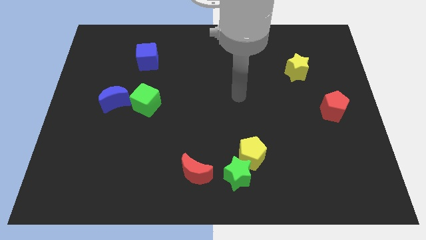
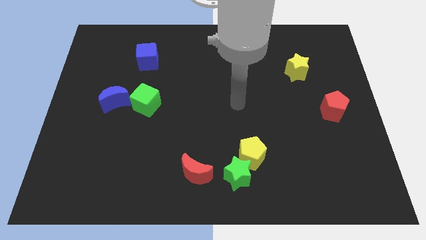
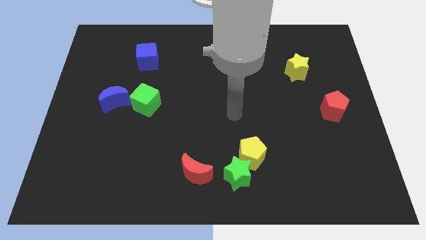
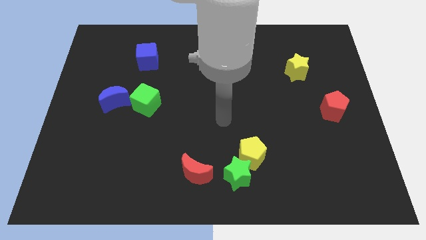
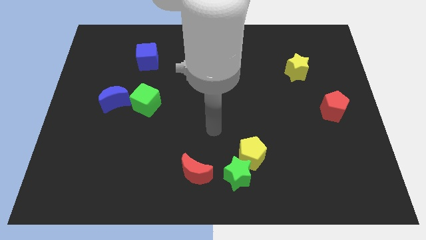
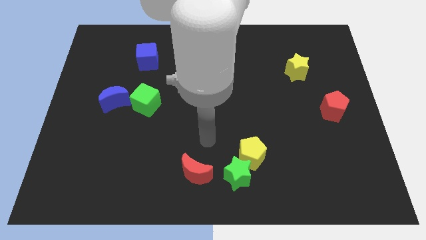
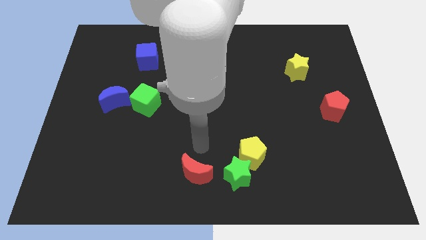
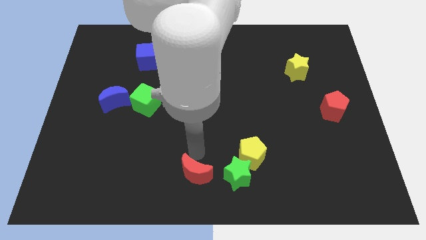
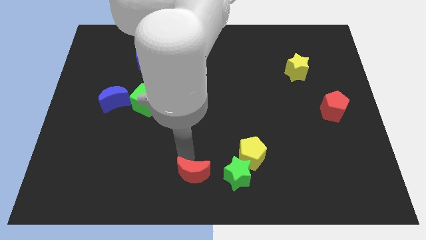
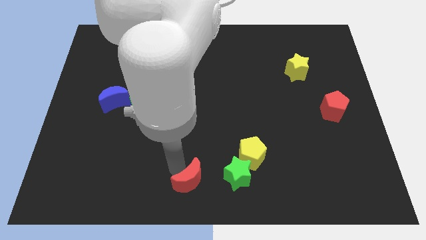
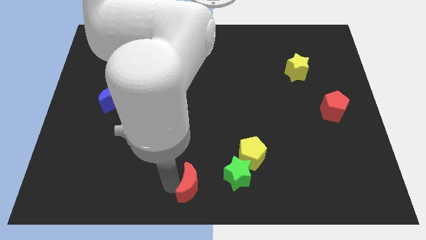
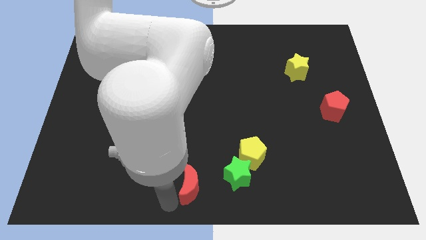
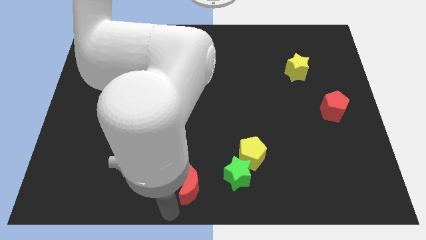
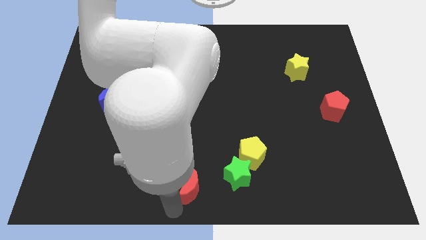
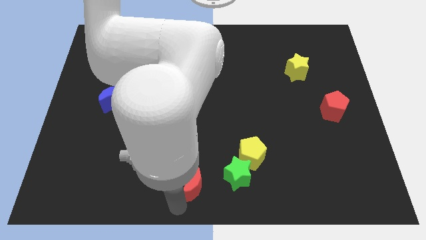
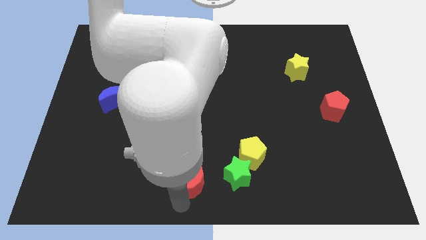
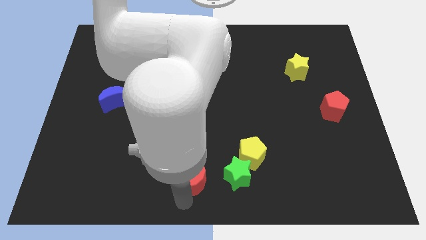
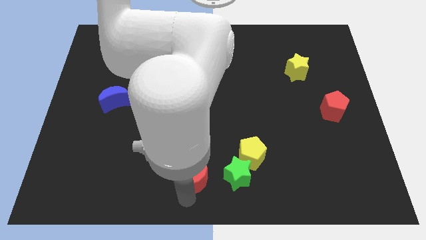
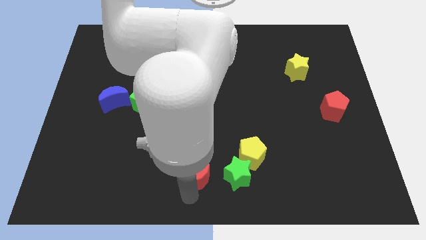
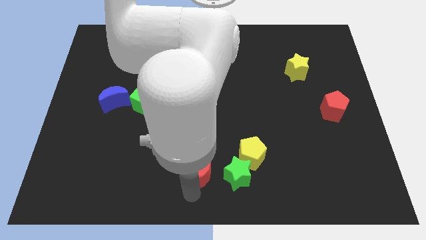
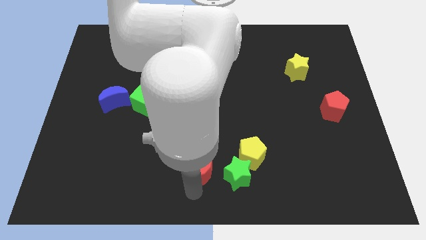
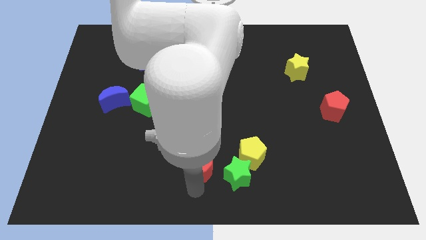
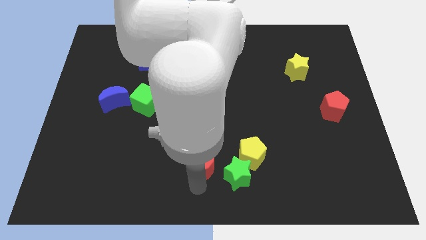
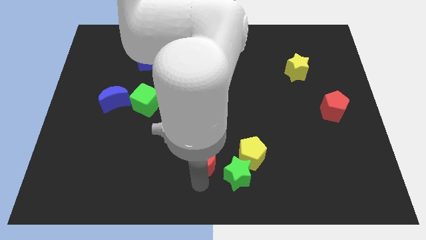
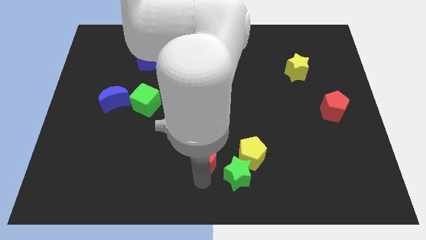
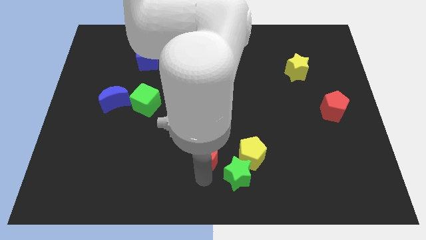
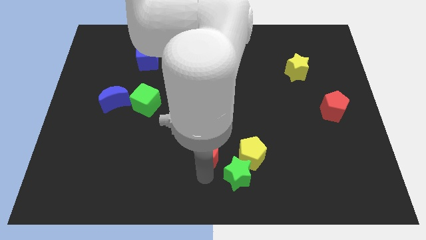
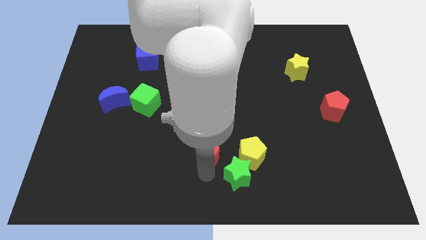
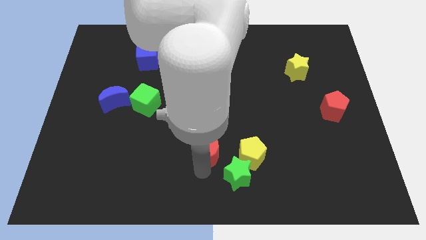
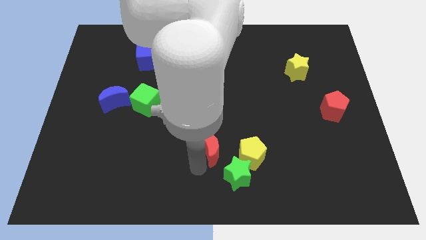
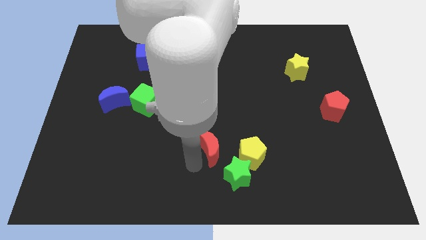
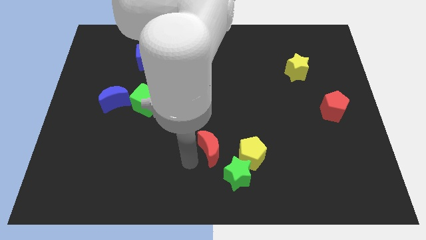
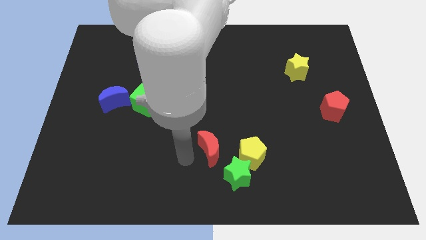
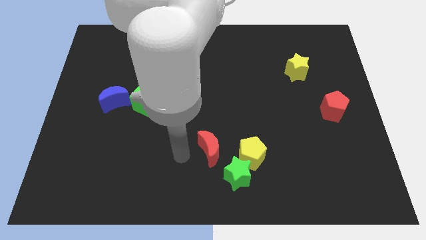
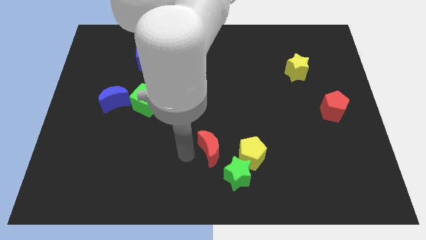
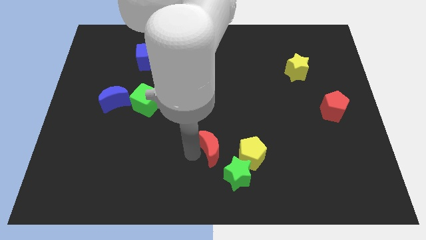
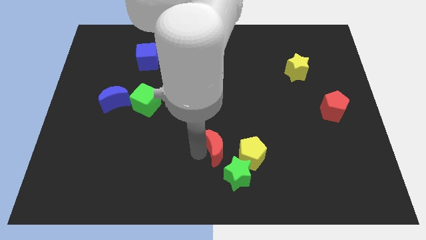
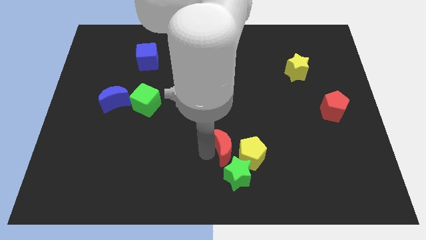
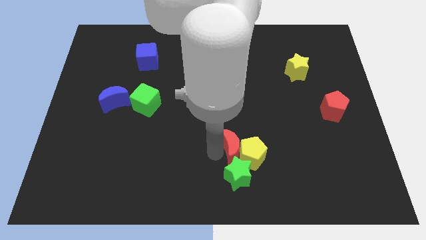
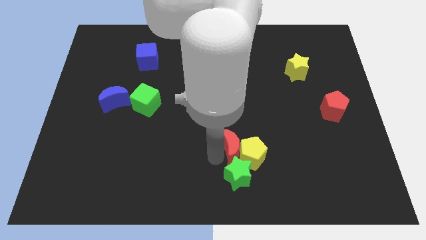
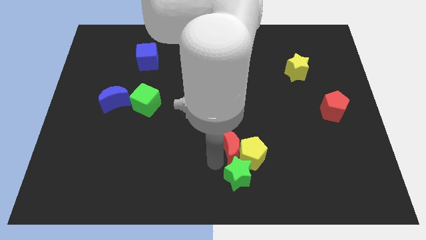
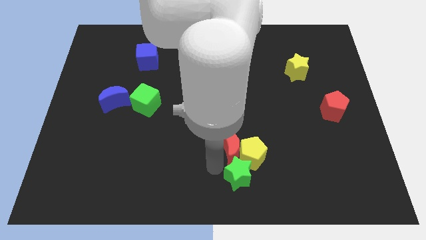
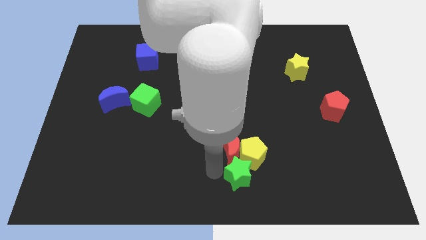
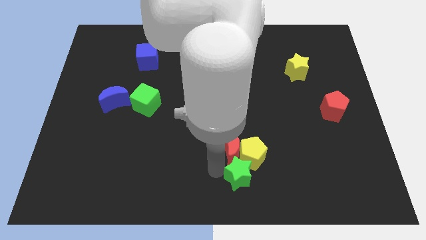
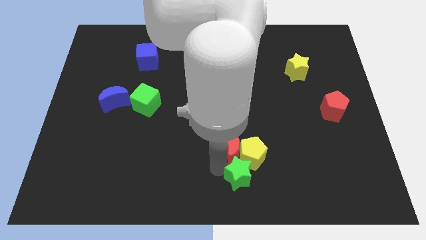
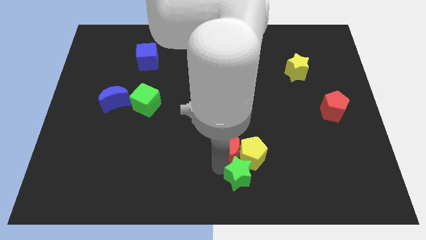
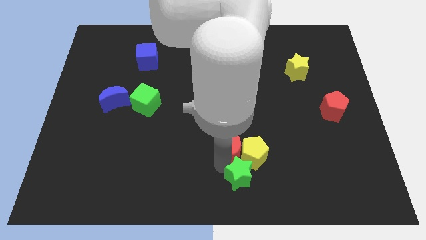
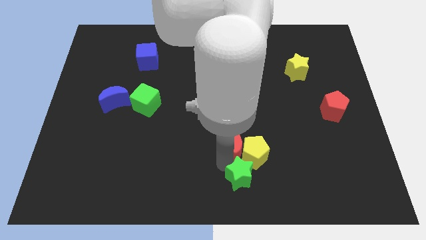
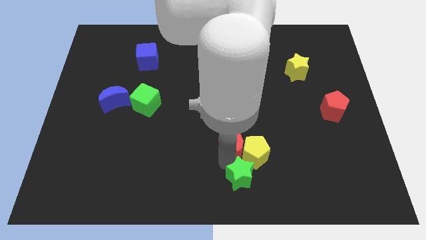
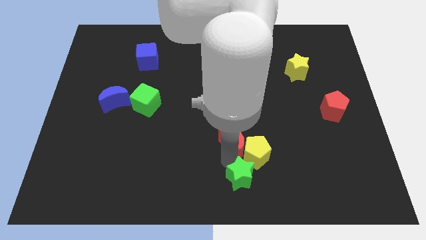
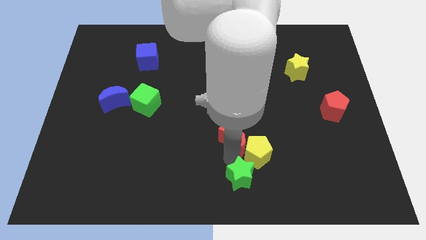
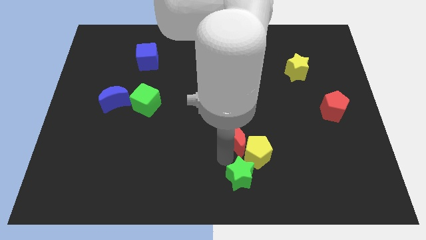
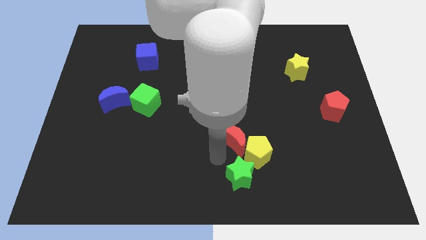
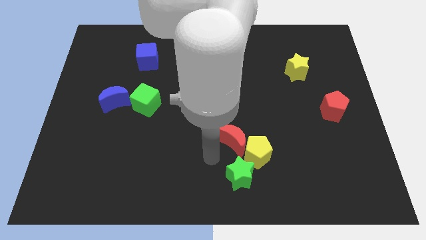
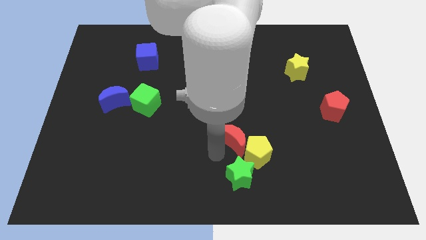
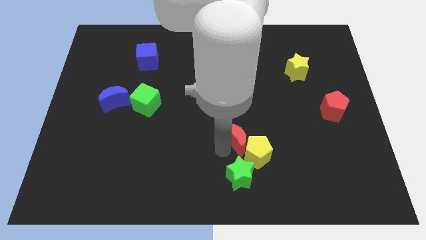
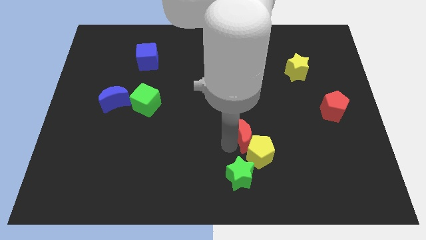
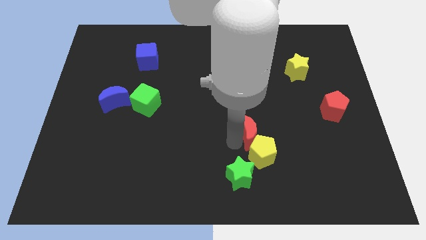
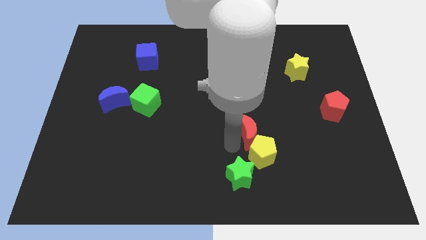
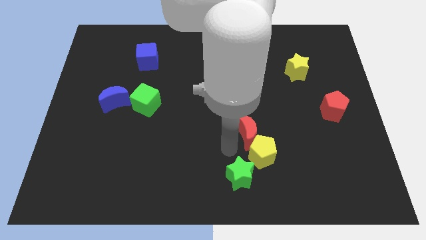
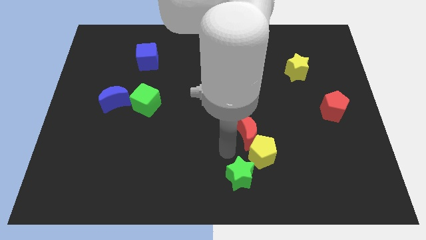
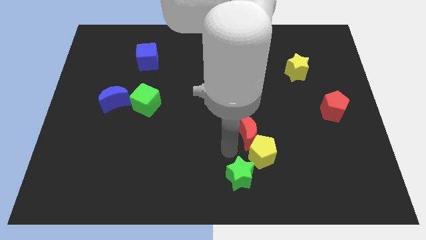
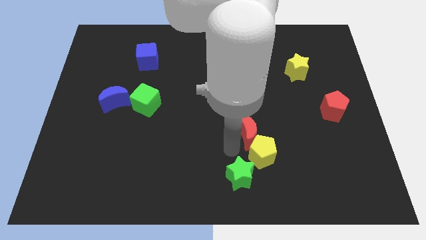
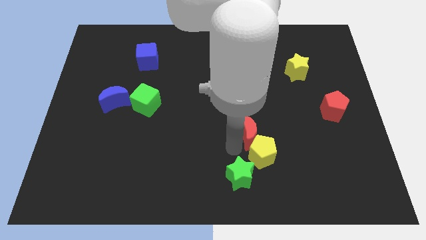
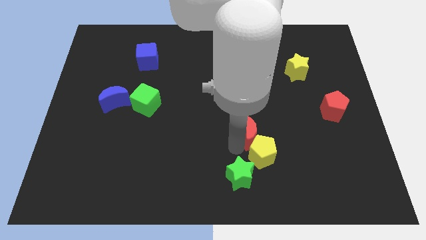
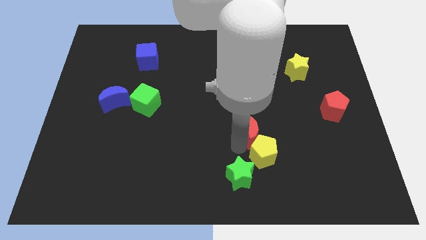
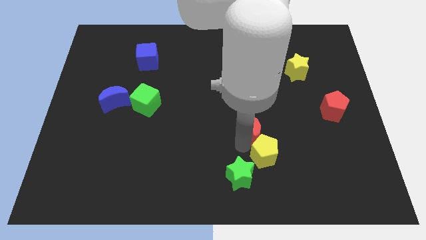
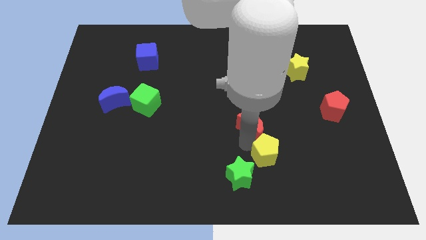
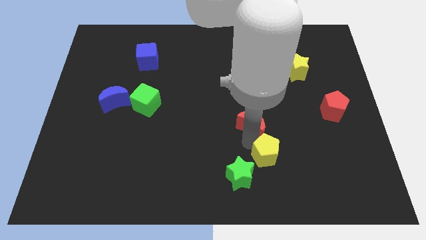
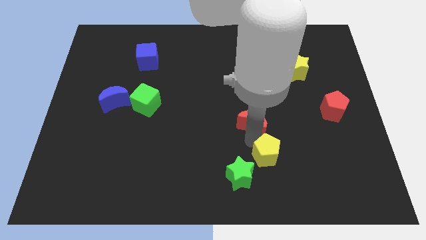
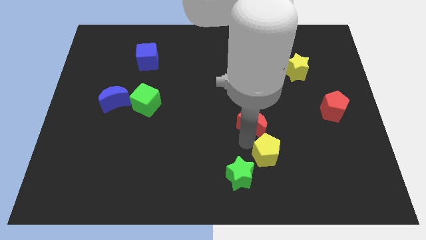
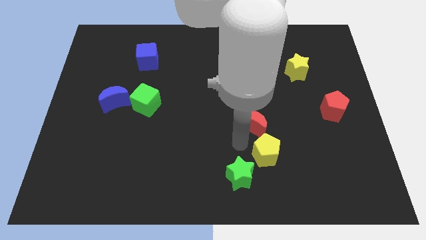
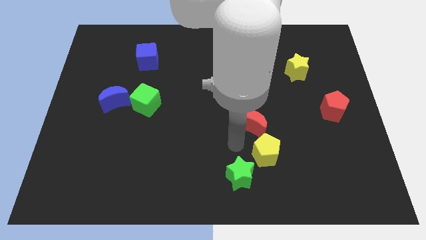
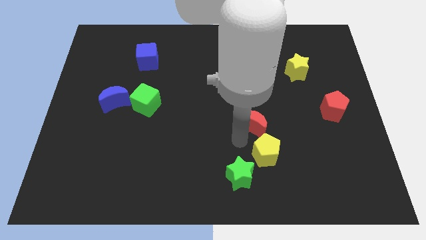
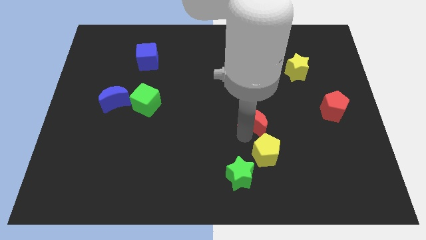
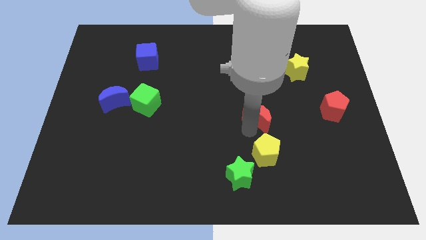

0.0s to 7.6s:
move the red moon up and to the right diagonally

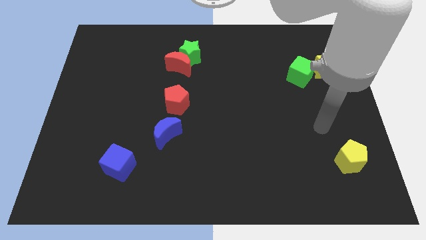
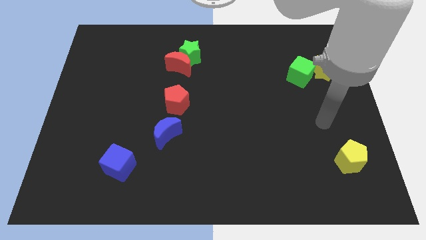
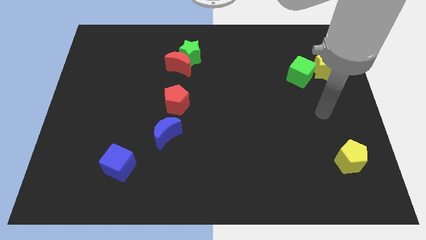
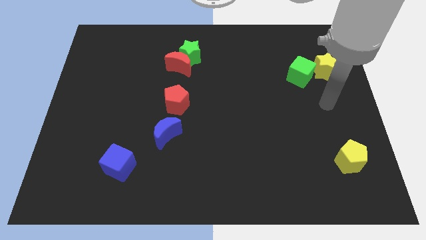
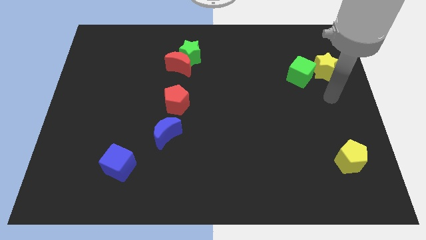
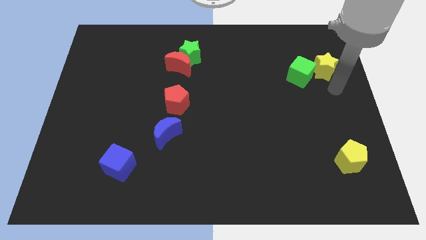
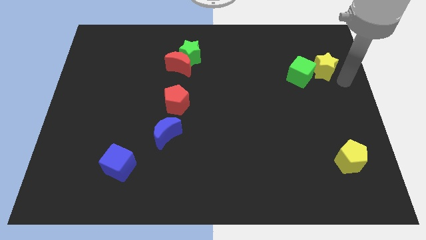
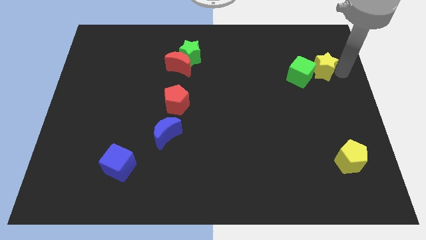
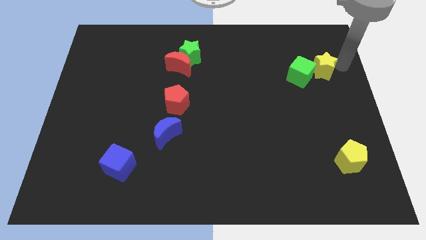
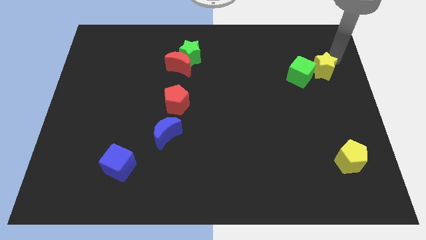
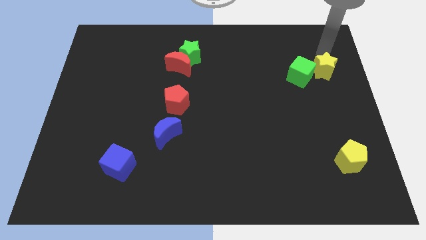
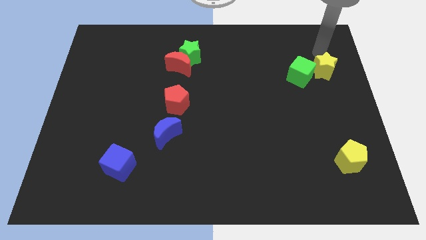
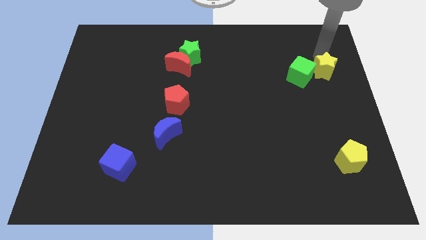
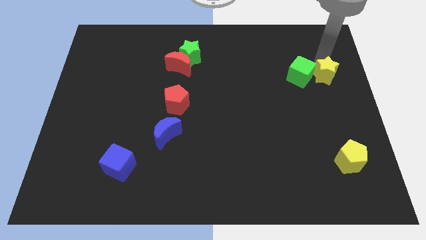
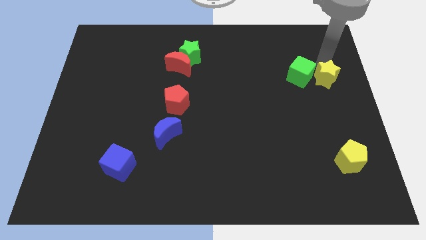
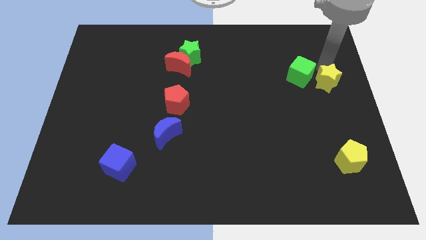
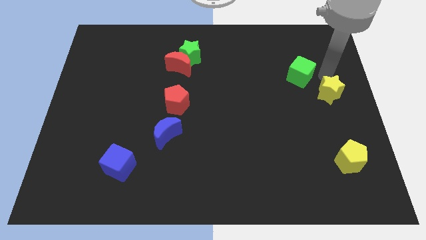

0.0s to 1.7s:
push the yellow star down a bit
